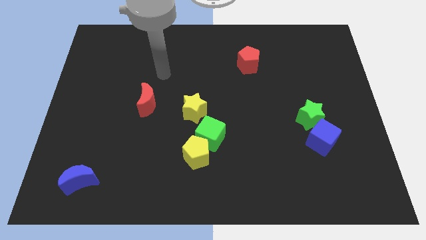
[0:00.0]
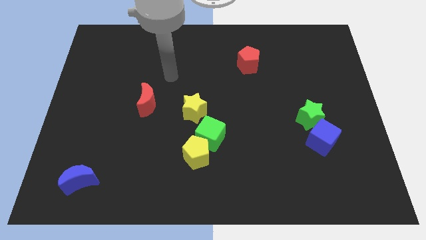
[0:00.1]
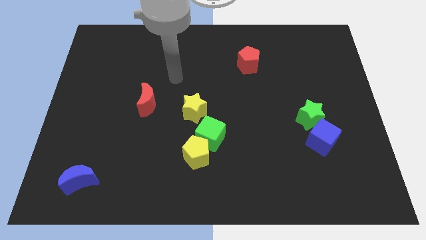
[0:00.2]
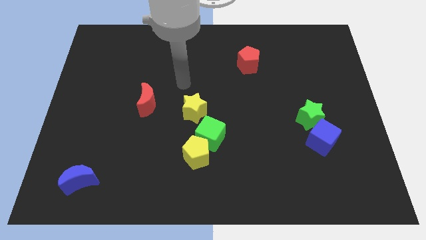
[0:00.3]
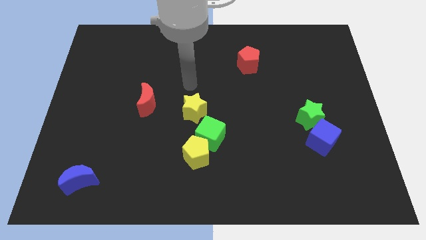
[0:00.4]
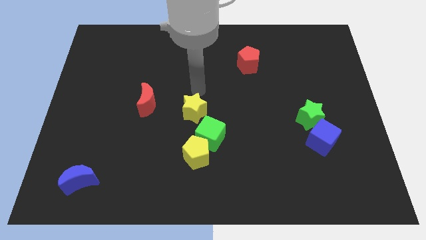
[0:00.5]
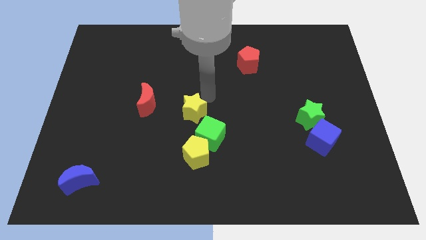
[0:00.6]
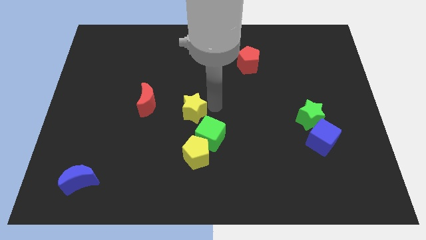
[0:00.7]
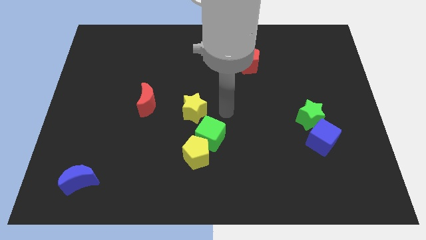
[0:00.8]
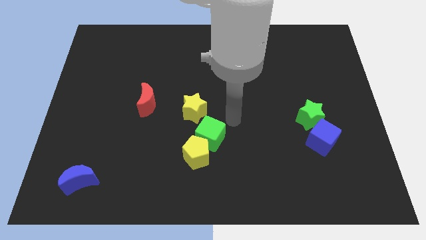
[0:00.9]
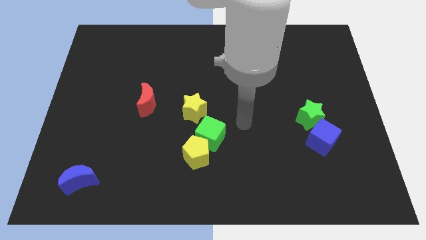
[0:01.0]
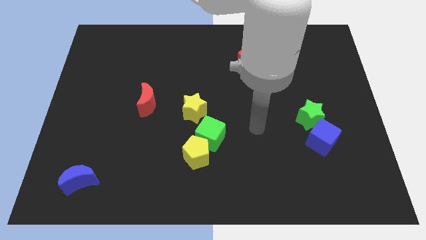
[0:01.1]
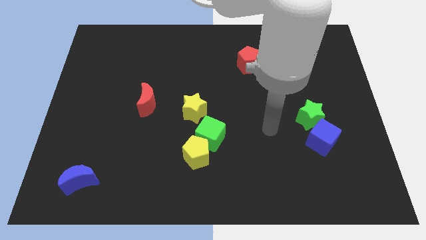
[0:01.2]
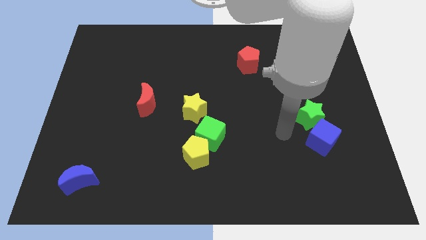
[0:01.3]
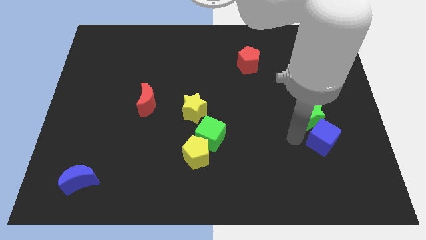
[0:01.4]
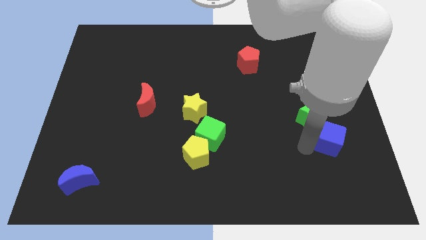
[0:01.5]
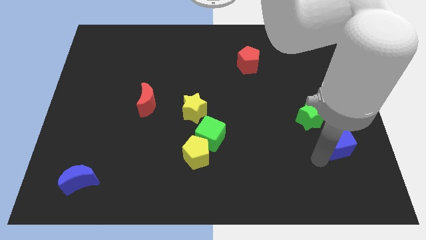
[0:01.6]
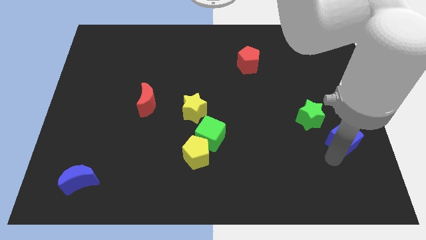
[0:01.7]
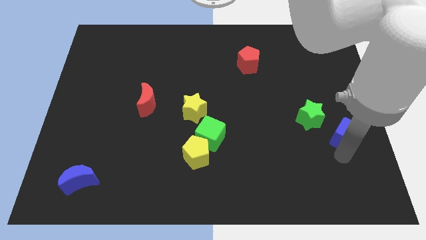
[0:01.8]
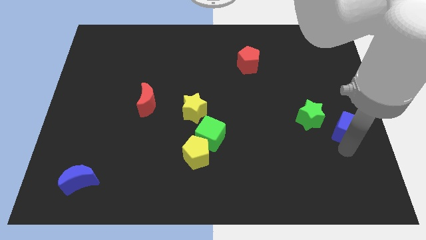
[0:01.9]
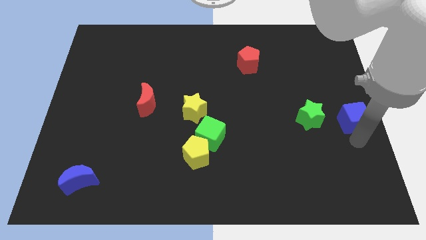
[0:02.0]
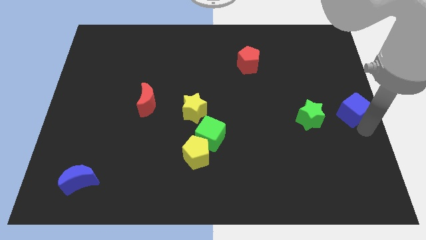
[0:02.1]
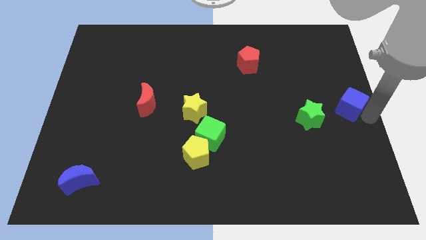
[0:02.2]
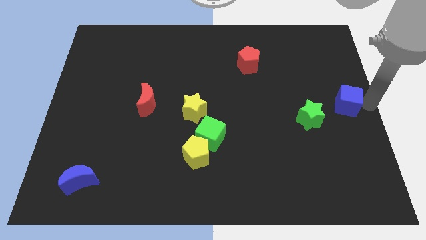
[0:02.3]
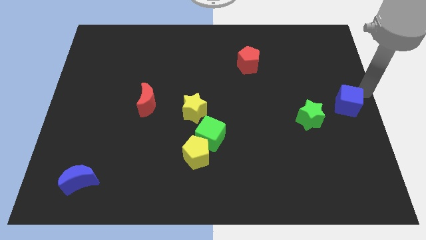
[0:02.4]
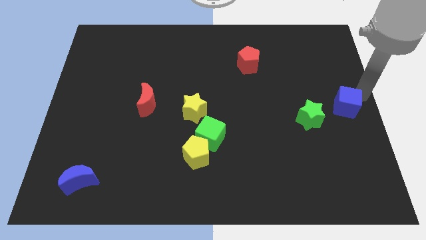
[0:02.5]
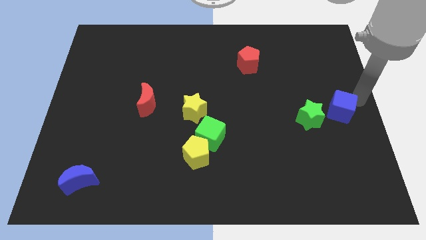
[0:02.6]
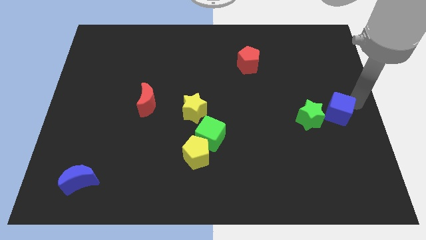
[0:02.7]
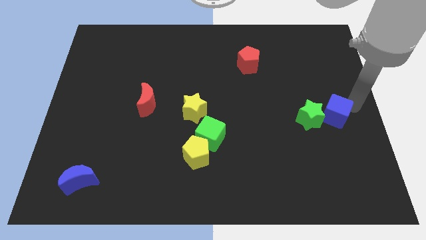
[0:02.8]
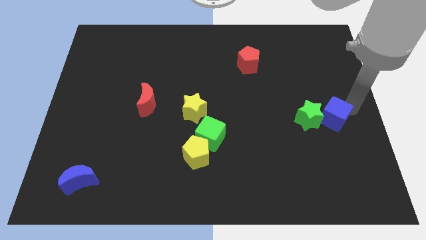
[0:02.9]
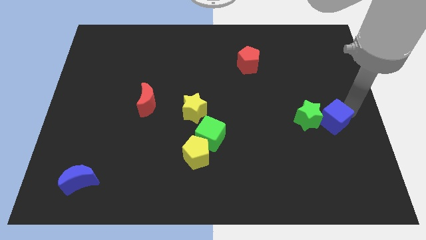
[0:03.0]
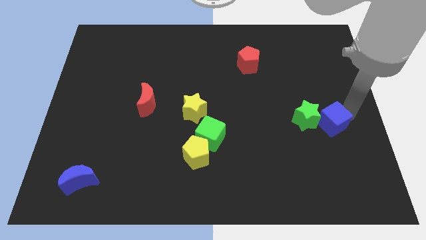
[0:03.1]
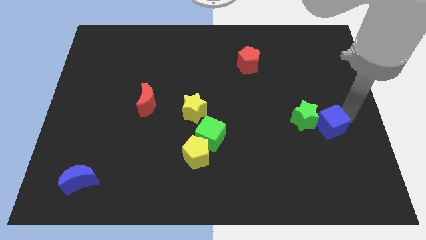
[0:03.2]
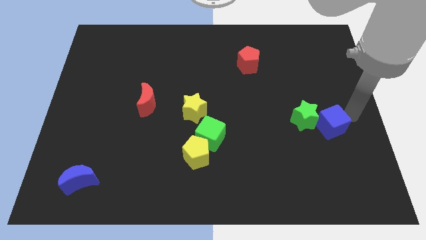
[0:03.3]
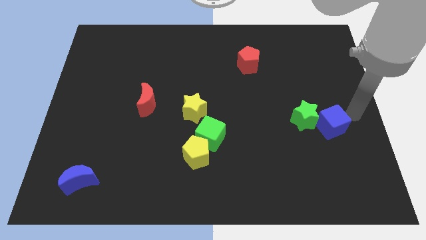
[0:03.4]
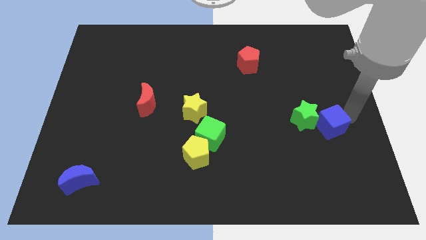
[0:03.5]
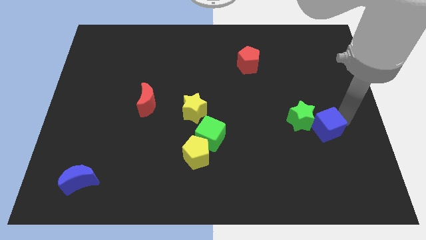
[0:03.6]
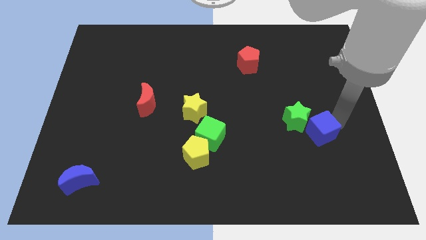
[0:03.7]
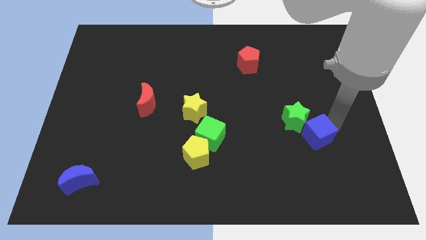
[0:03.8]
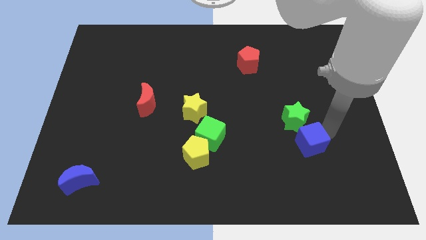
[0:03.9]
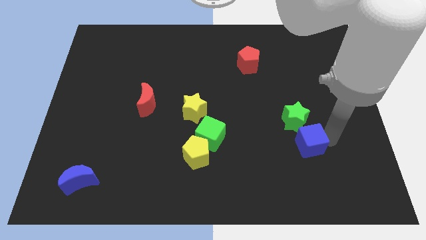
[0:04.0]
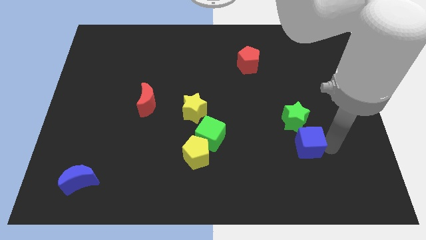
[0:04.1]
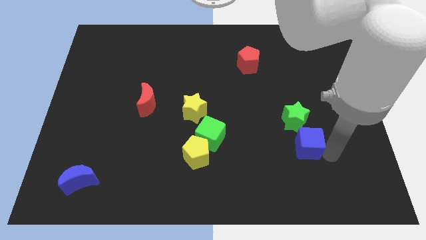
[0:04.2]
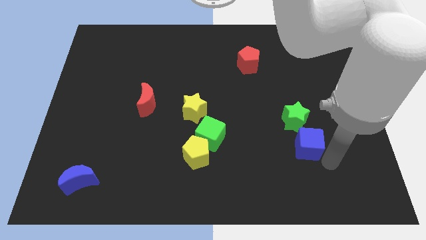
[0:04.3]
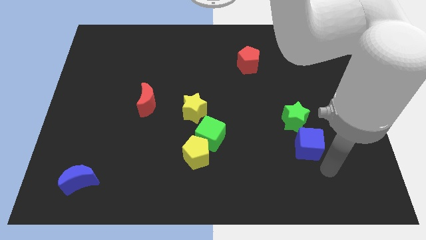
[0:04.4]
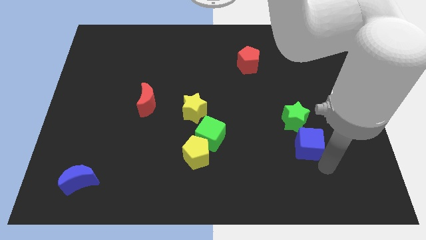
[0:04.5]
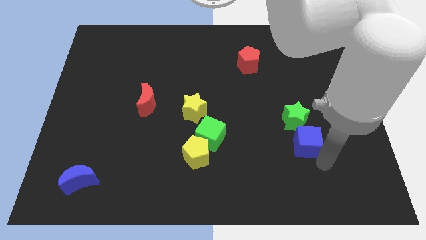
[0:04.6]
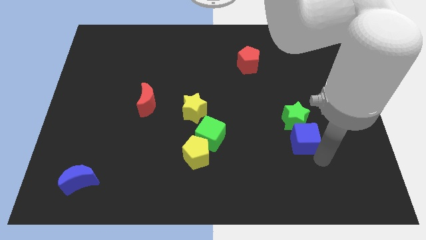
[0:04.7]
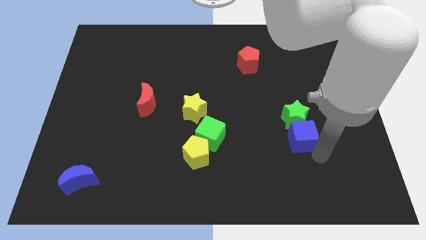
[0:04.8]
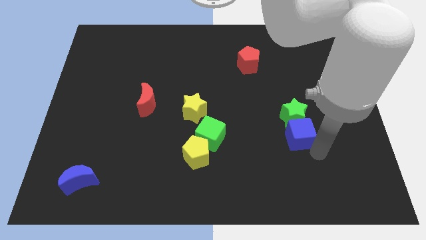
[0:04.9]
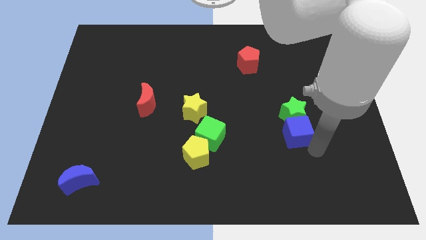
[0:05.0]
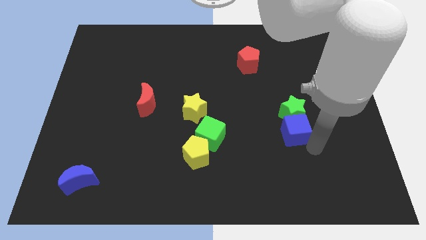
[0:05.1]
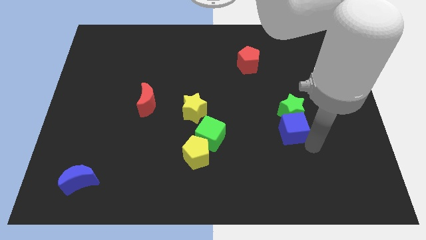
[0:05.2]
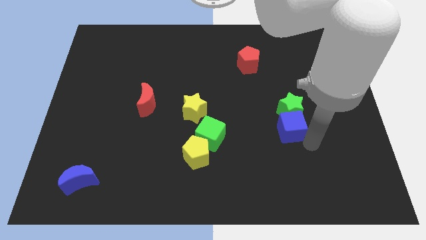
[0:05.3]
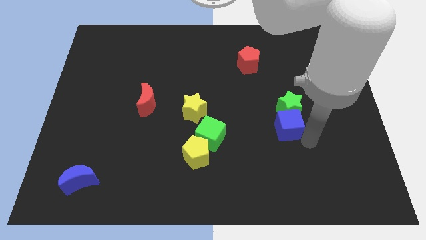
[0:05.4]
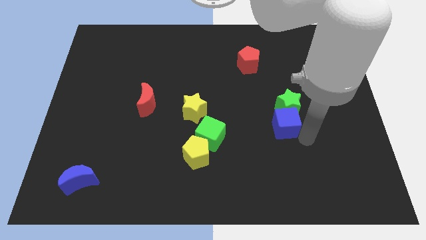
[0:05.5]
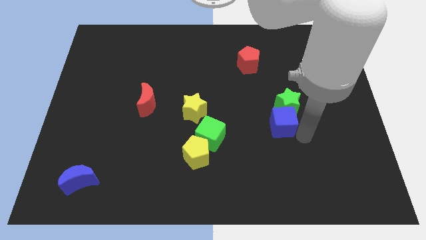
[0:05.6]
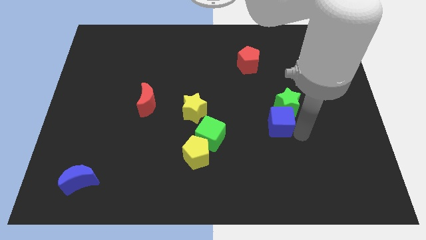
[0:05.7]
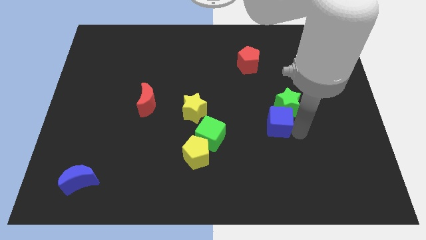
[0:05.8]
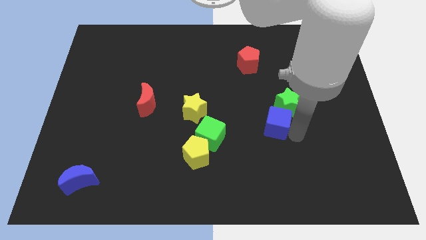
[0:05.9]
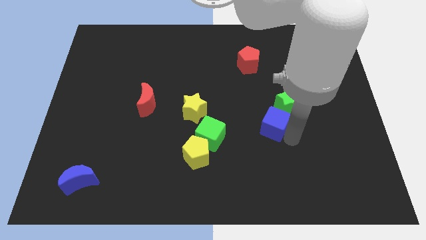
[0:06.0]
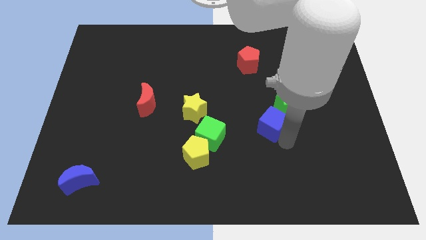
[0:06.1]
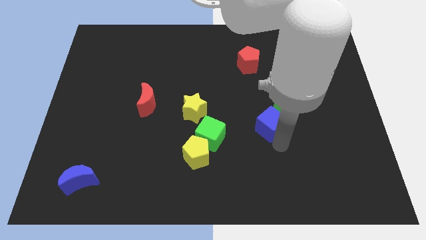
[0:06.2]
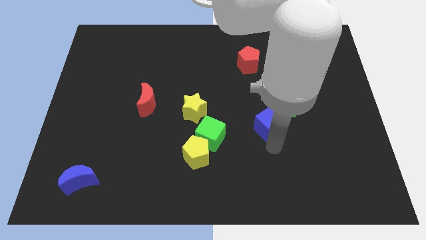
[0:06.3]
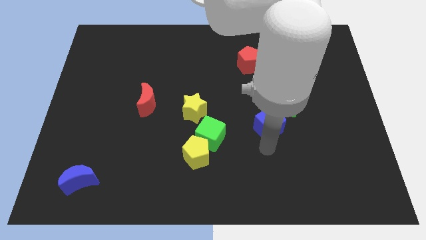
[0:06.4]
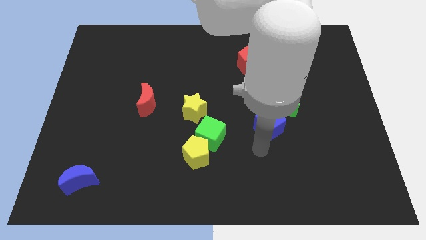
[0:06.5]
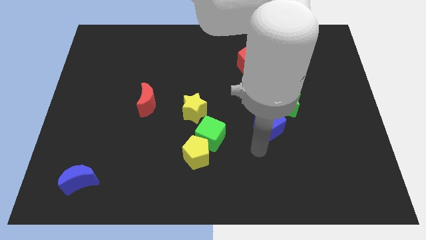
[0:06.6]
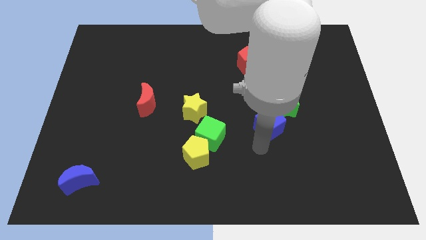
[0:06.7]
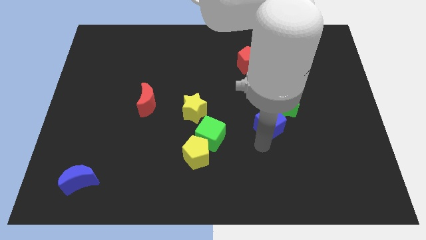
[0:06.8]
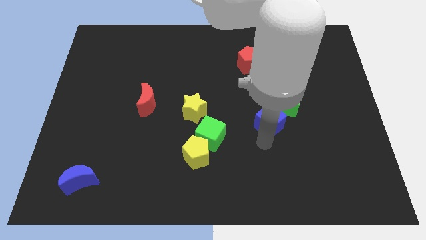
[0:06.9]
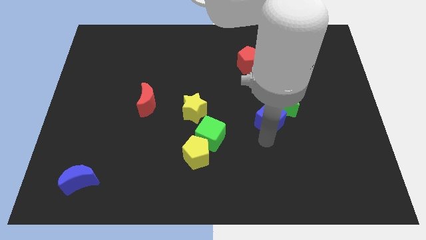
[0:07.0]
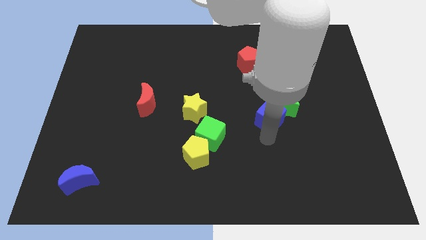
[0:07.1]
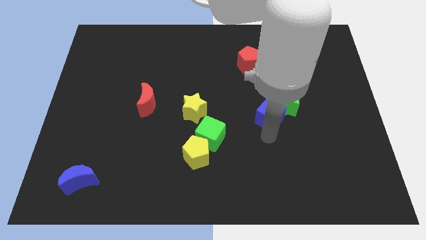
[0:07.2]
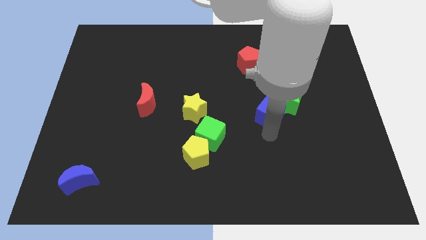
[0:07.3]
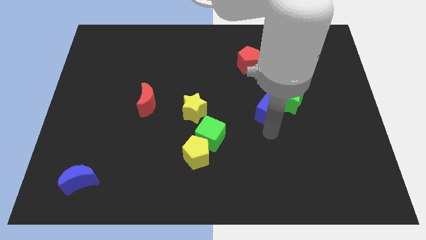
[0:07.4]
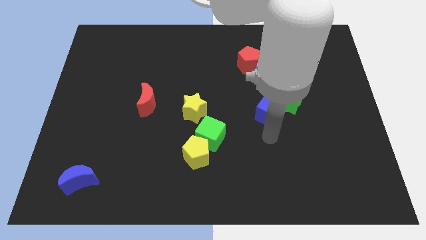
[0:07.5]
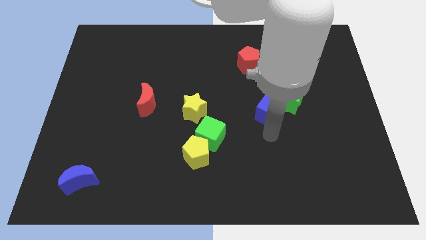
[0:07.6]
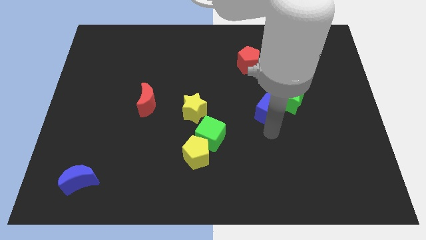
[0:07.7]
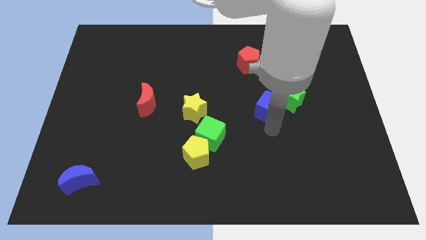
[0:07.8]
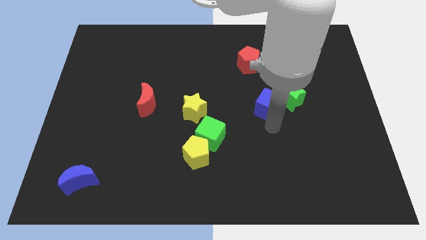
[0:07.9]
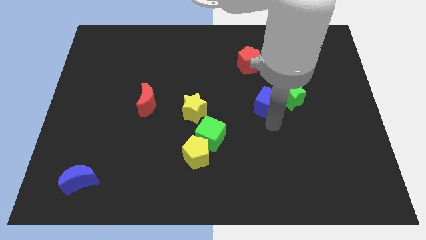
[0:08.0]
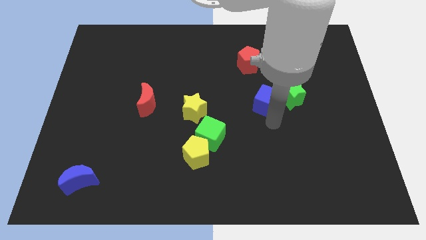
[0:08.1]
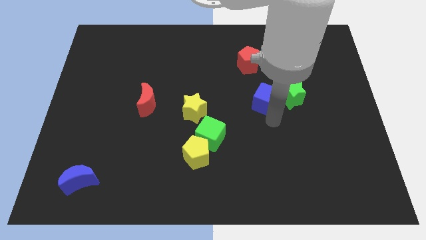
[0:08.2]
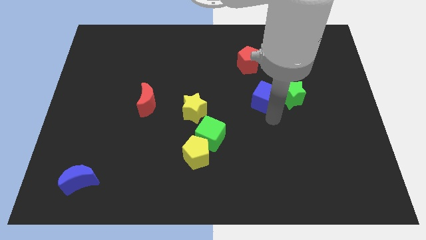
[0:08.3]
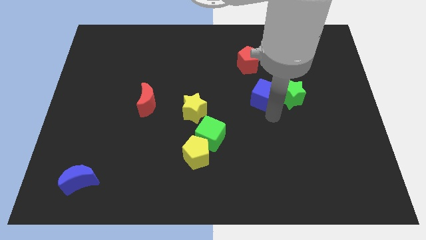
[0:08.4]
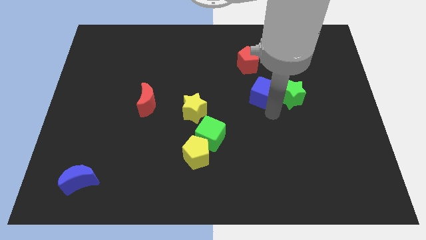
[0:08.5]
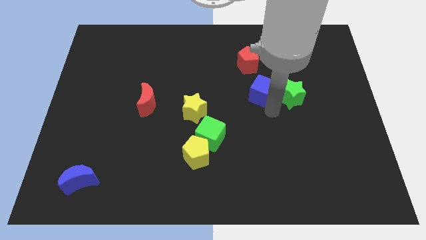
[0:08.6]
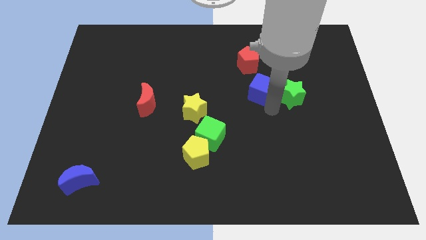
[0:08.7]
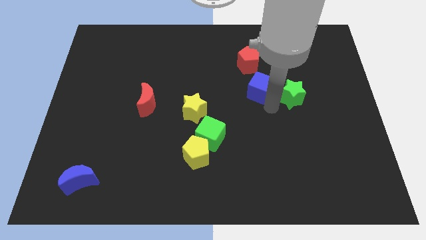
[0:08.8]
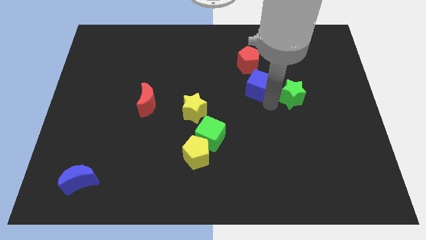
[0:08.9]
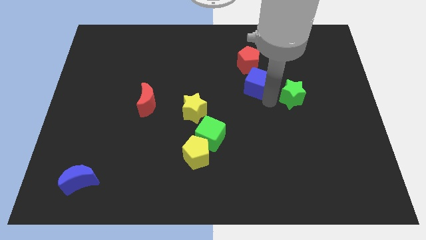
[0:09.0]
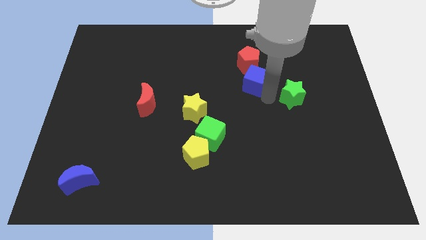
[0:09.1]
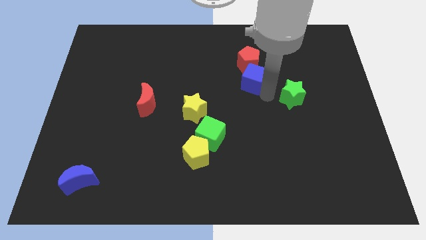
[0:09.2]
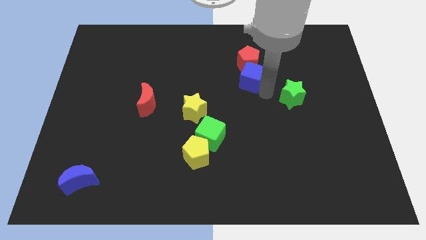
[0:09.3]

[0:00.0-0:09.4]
push the blue cube towards the red pentagon
